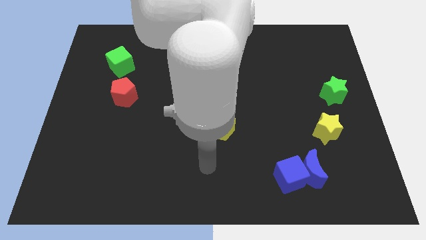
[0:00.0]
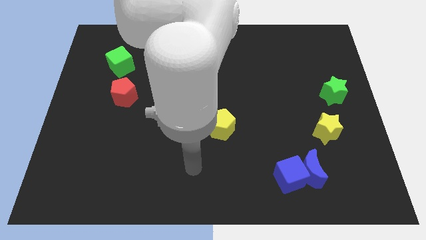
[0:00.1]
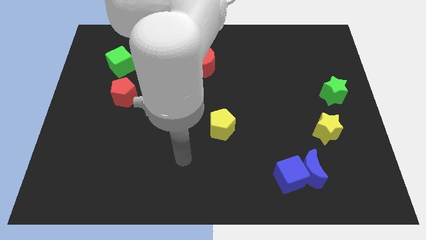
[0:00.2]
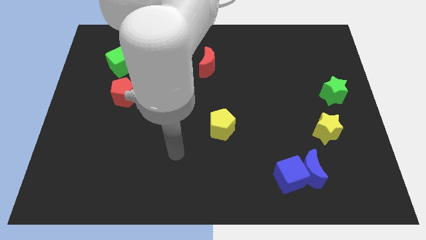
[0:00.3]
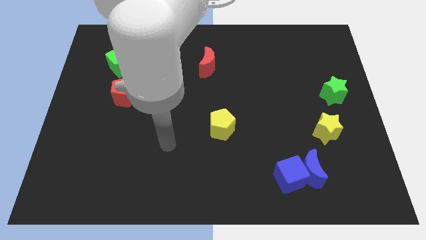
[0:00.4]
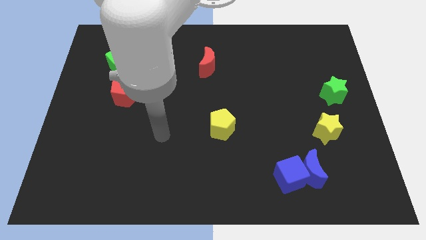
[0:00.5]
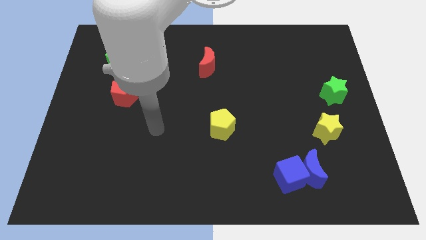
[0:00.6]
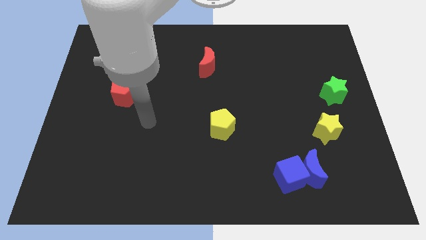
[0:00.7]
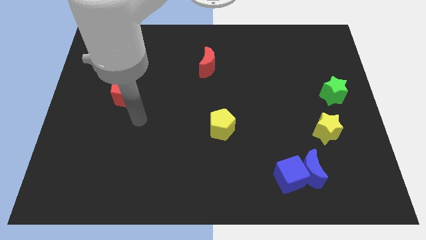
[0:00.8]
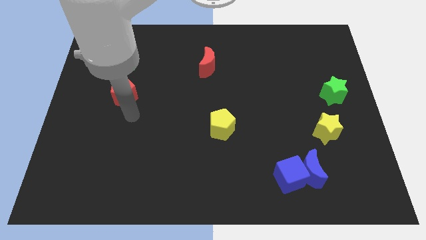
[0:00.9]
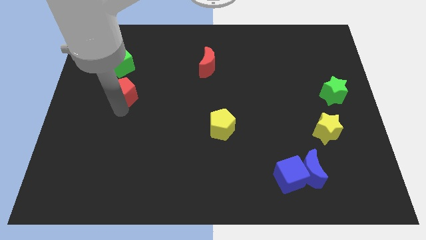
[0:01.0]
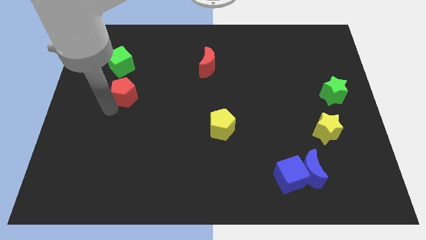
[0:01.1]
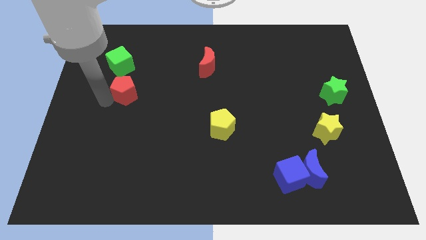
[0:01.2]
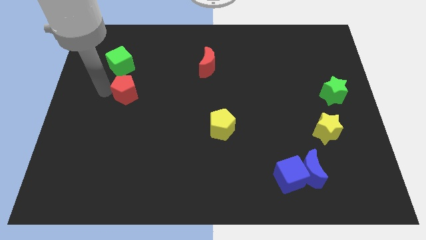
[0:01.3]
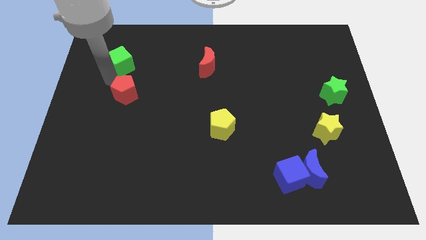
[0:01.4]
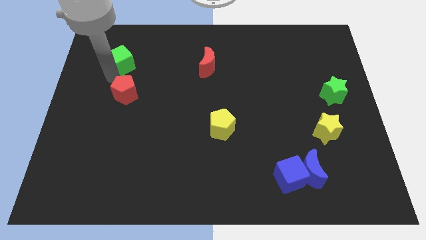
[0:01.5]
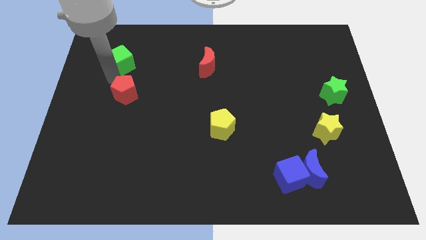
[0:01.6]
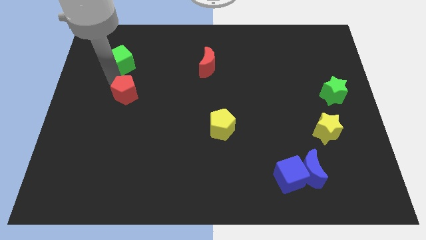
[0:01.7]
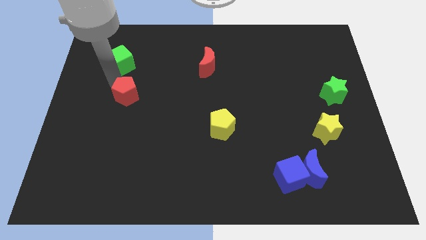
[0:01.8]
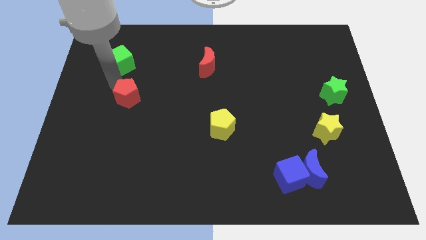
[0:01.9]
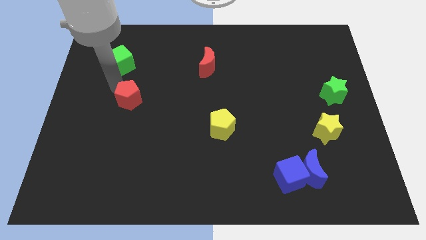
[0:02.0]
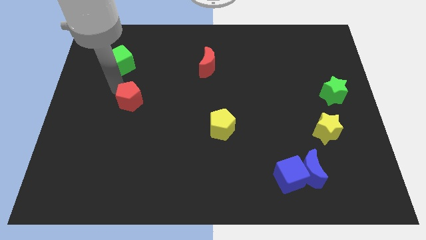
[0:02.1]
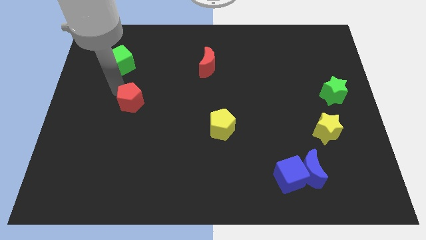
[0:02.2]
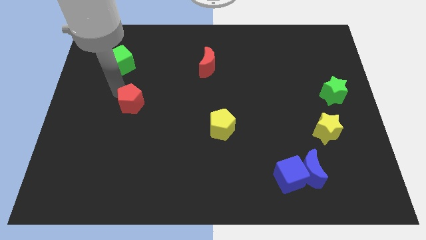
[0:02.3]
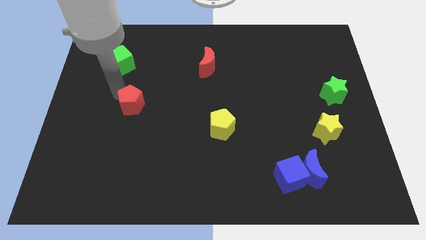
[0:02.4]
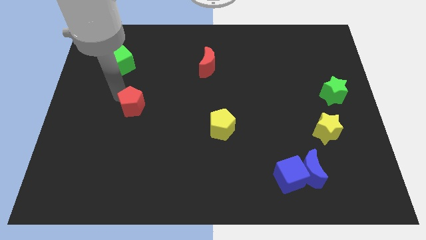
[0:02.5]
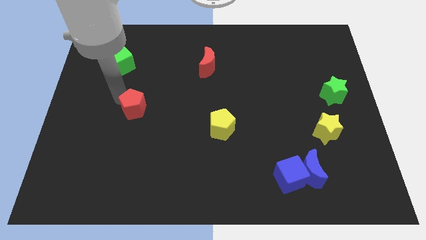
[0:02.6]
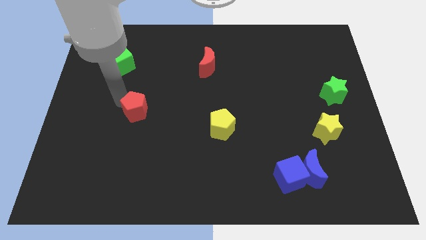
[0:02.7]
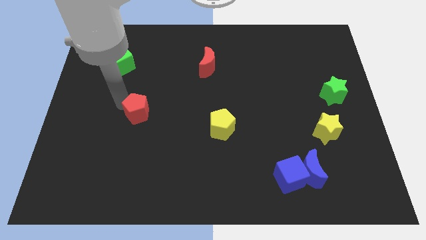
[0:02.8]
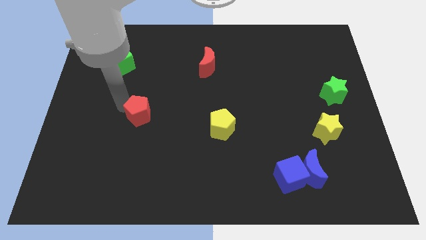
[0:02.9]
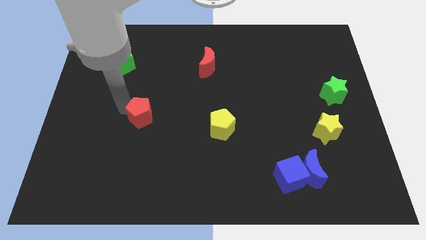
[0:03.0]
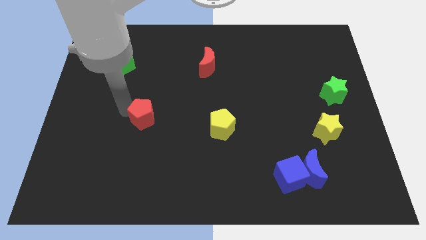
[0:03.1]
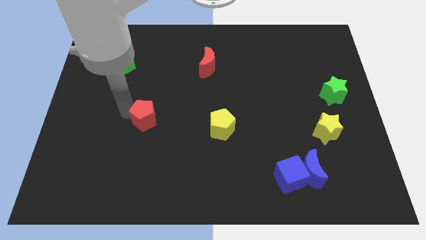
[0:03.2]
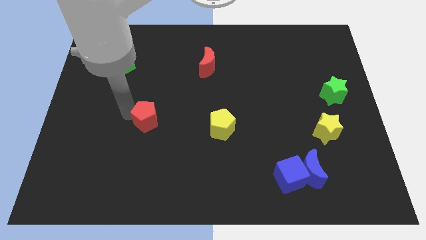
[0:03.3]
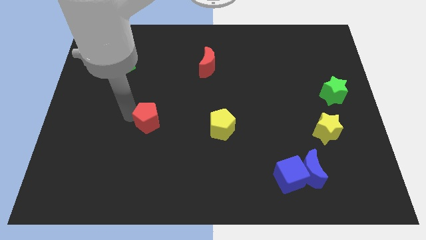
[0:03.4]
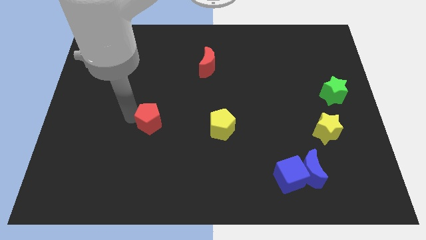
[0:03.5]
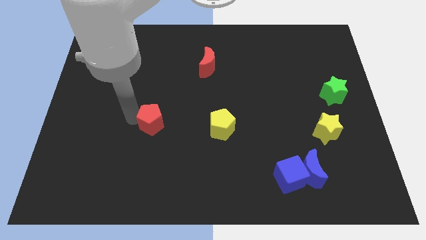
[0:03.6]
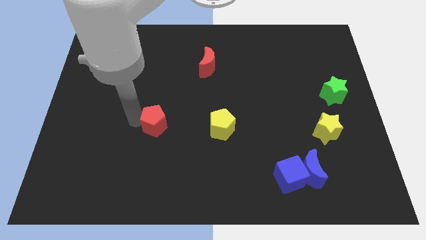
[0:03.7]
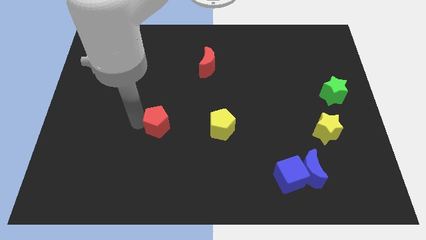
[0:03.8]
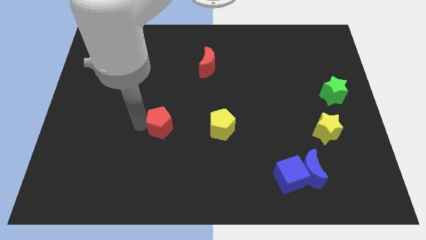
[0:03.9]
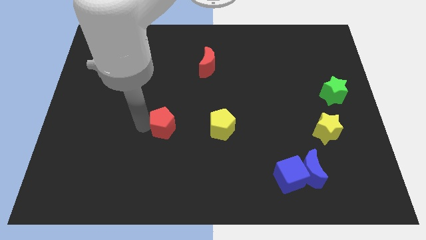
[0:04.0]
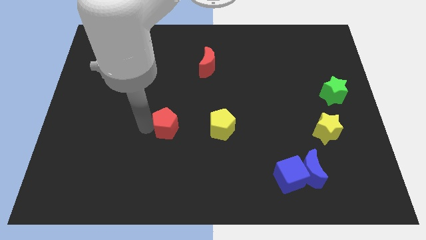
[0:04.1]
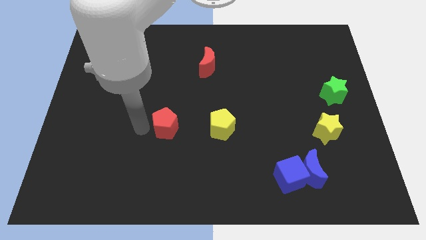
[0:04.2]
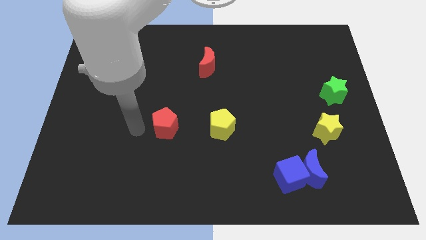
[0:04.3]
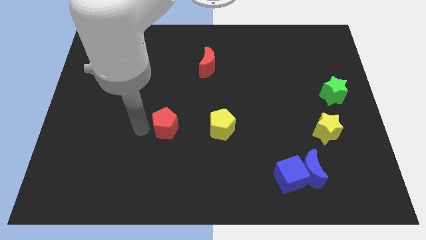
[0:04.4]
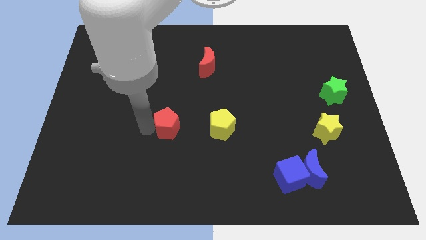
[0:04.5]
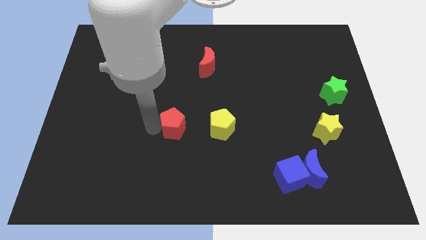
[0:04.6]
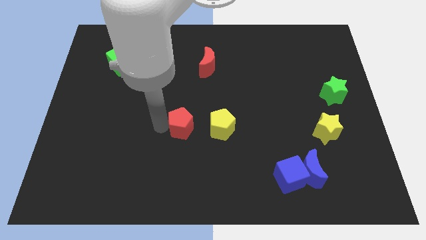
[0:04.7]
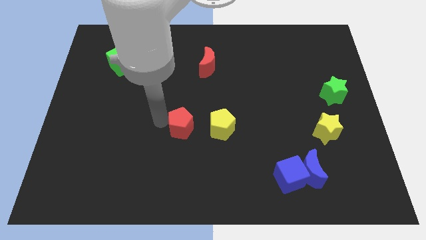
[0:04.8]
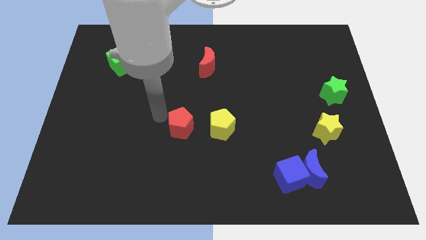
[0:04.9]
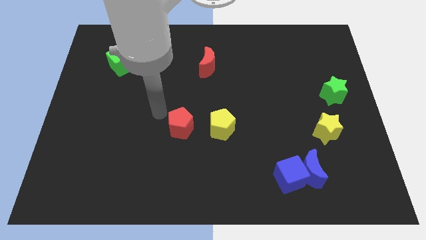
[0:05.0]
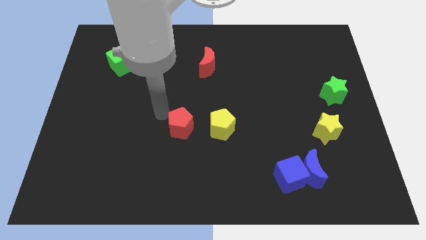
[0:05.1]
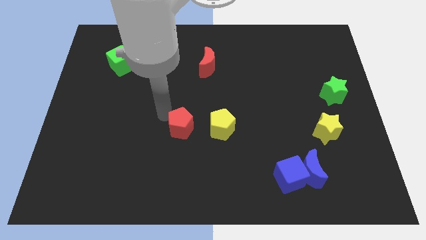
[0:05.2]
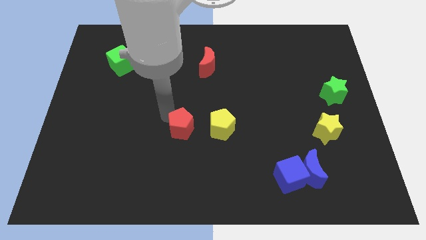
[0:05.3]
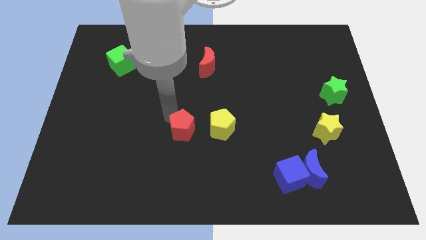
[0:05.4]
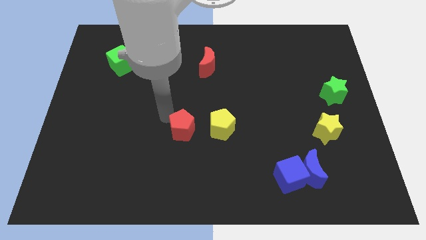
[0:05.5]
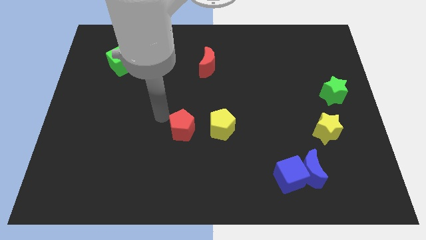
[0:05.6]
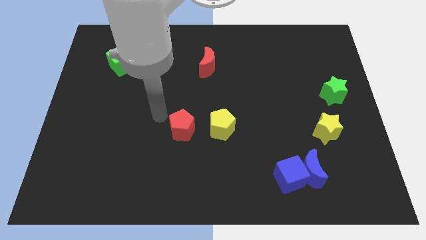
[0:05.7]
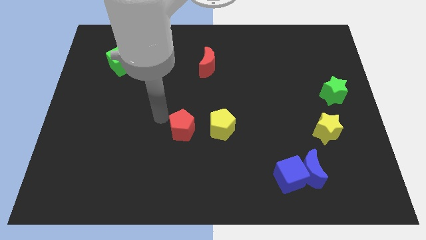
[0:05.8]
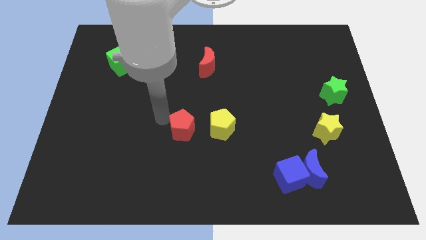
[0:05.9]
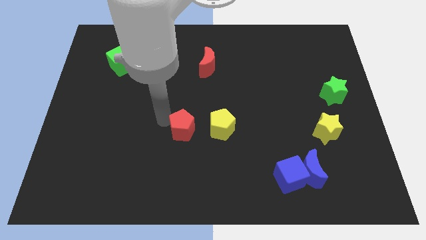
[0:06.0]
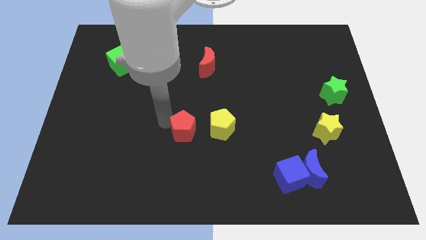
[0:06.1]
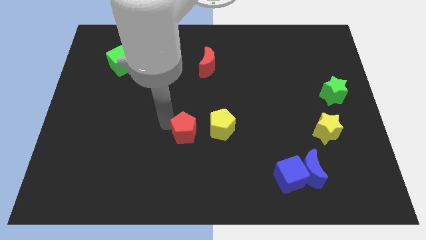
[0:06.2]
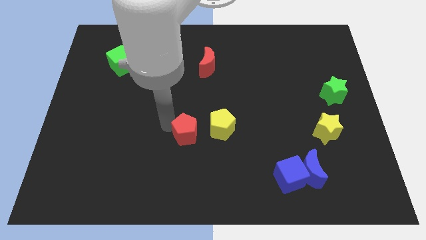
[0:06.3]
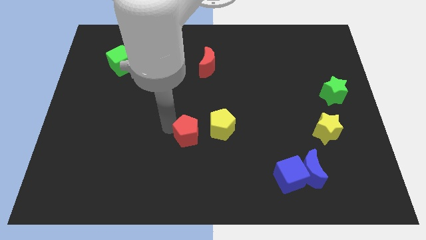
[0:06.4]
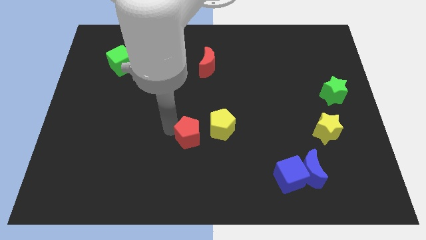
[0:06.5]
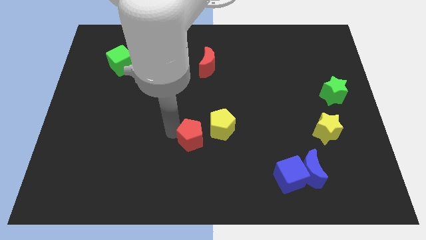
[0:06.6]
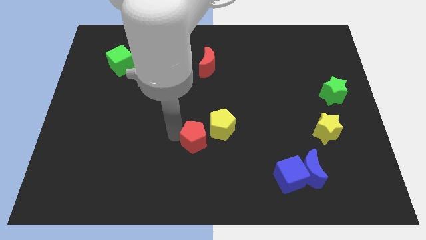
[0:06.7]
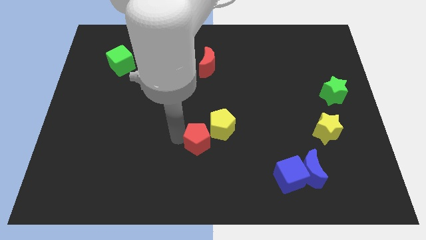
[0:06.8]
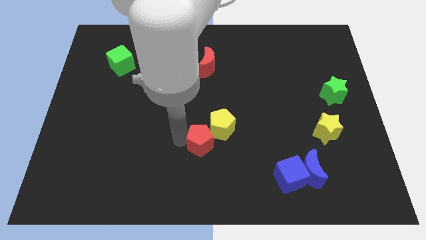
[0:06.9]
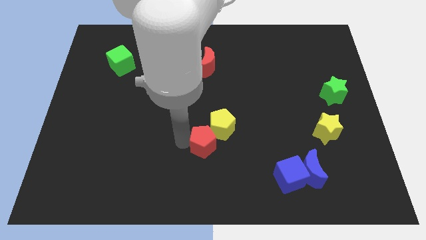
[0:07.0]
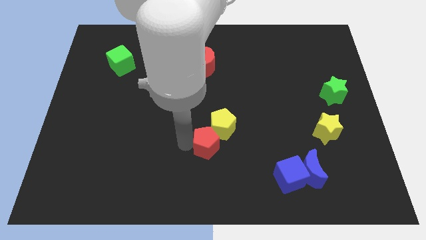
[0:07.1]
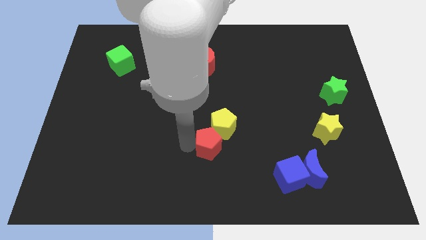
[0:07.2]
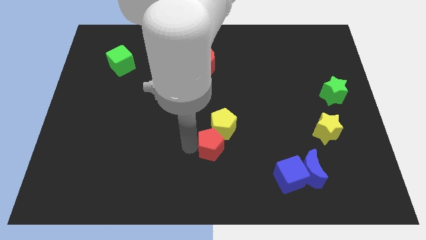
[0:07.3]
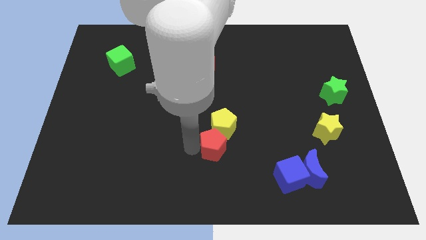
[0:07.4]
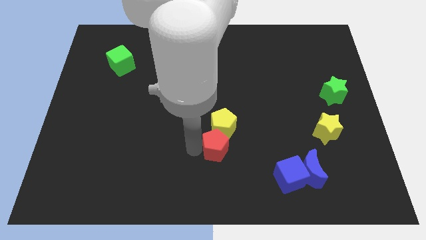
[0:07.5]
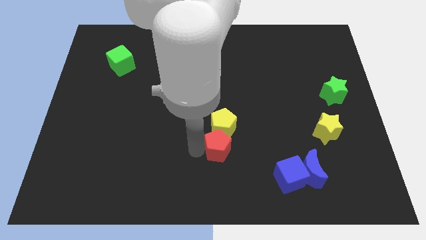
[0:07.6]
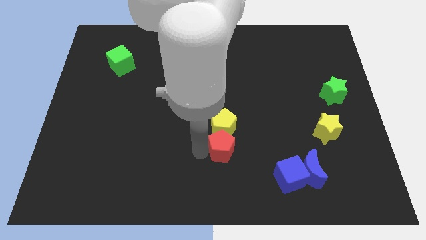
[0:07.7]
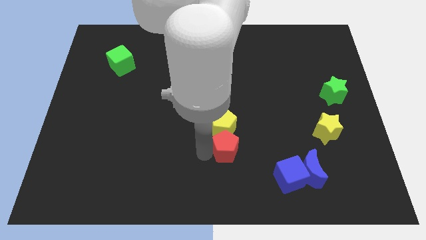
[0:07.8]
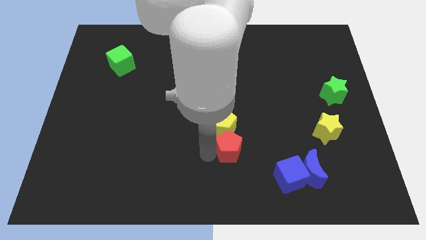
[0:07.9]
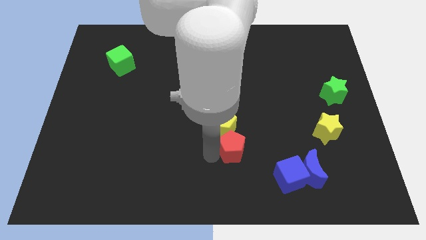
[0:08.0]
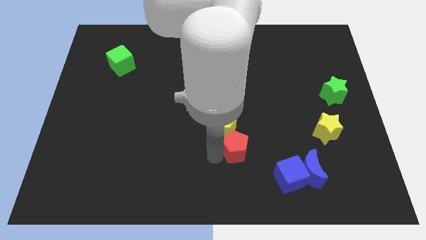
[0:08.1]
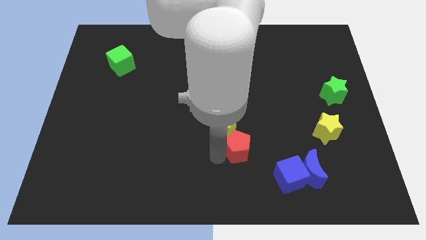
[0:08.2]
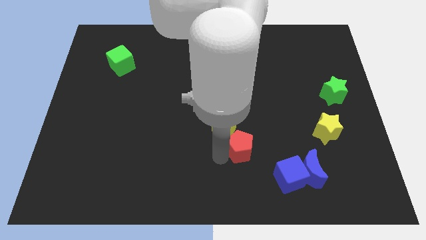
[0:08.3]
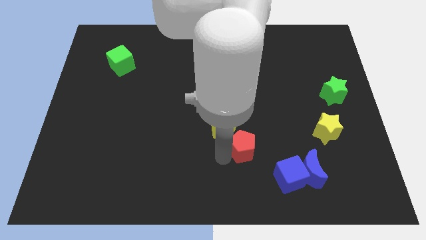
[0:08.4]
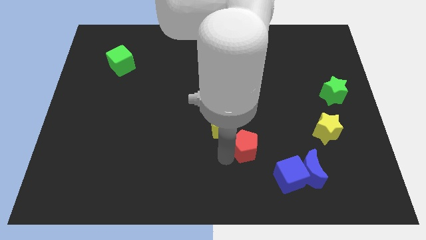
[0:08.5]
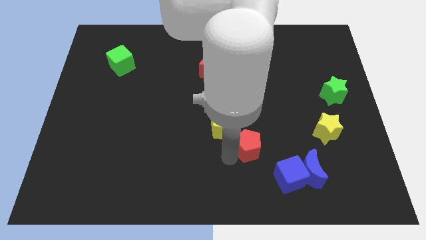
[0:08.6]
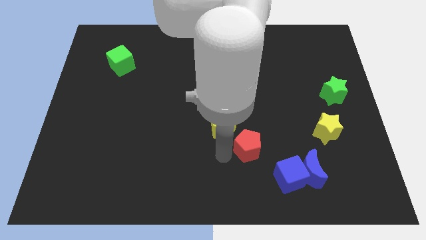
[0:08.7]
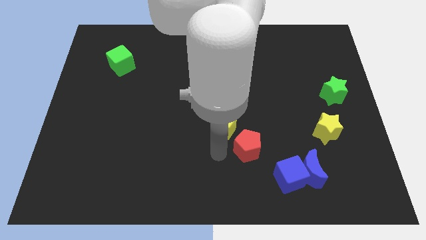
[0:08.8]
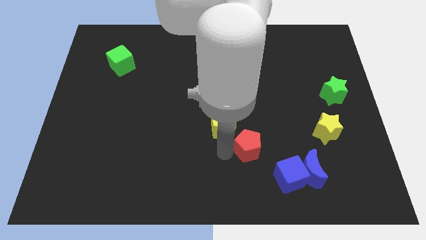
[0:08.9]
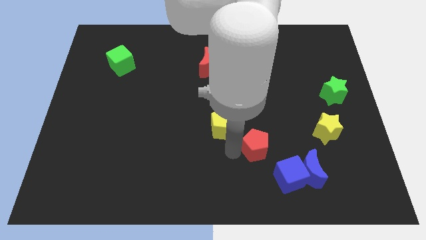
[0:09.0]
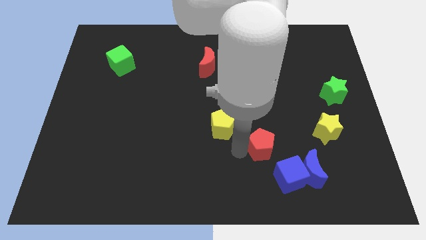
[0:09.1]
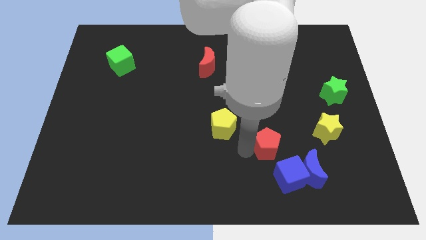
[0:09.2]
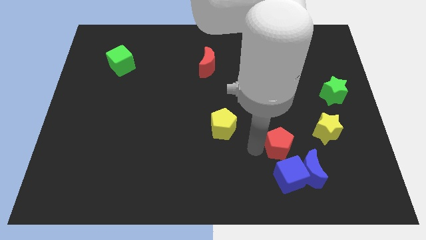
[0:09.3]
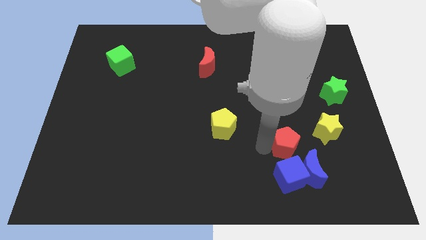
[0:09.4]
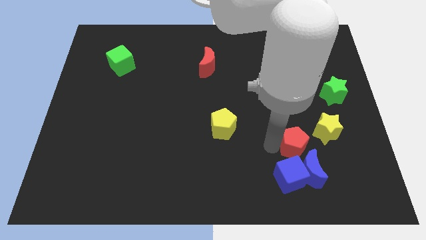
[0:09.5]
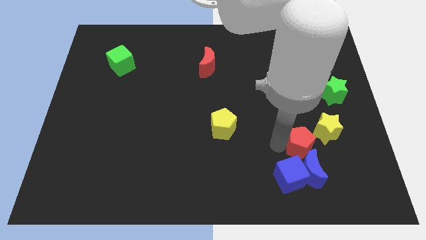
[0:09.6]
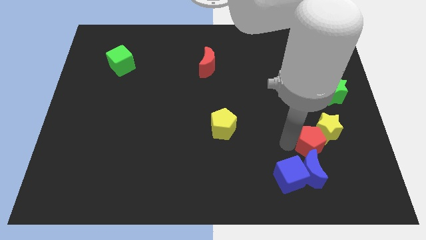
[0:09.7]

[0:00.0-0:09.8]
slide the red pentagon below the yellow star
